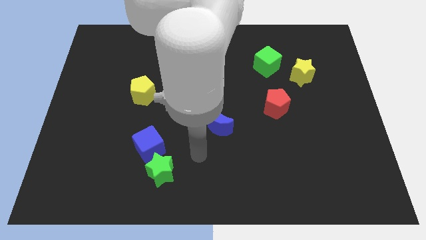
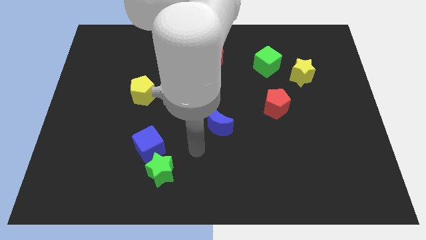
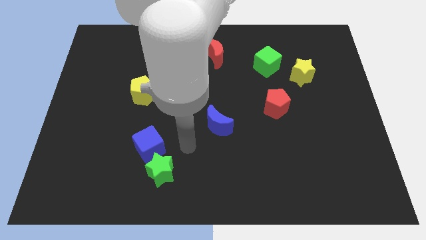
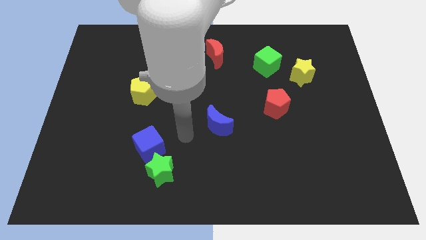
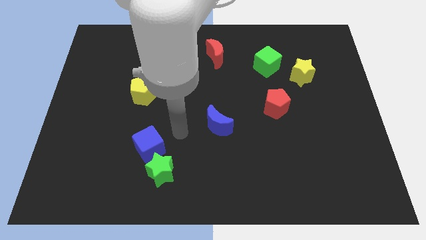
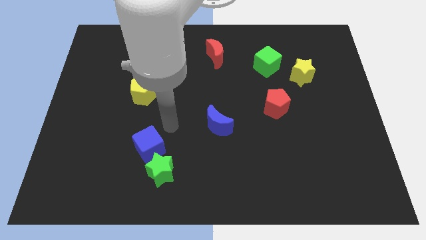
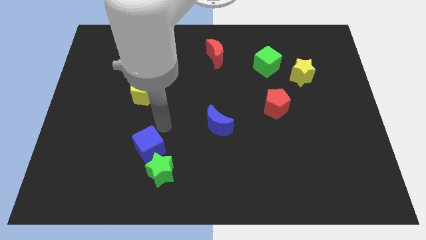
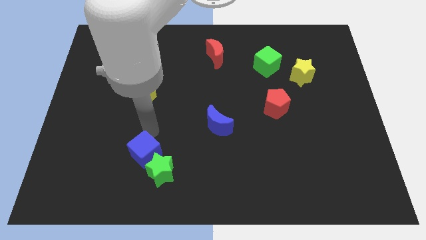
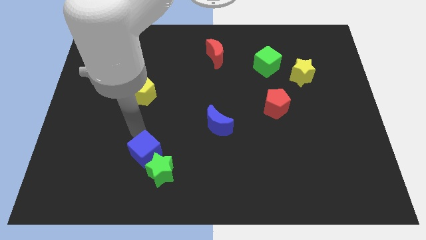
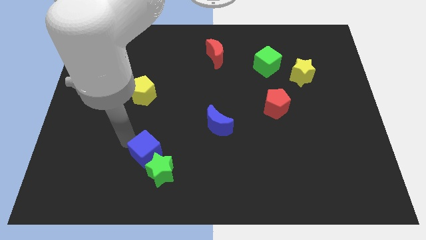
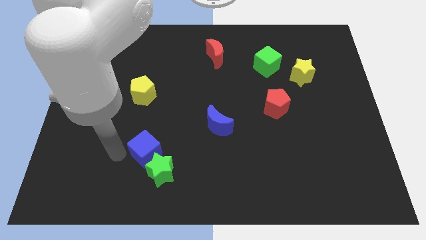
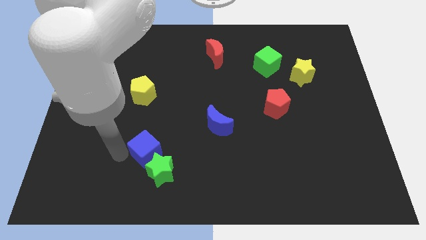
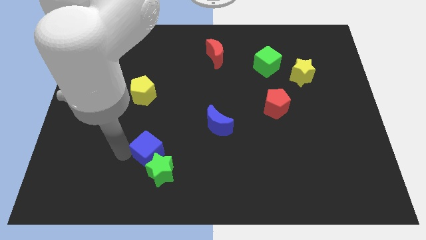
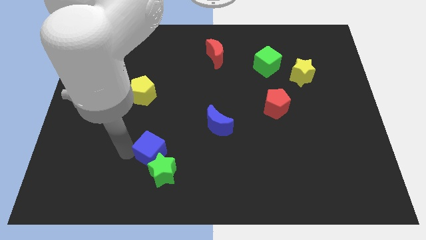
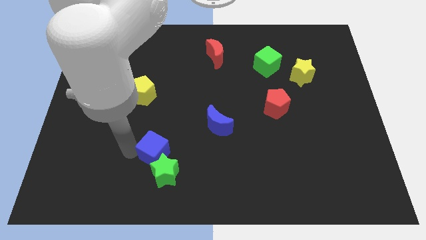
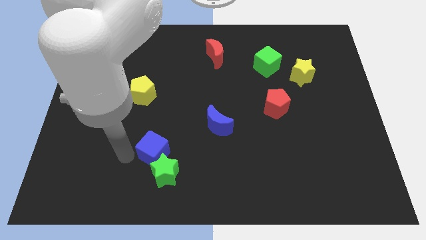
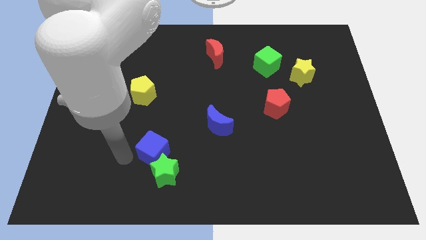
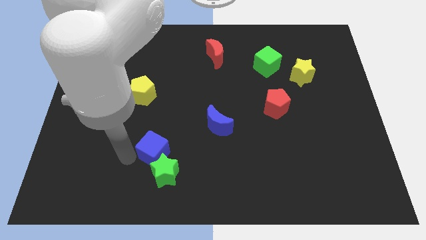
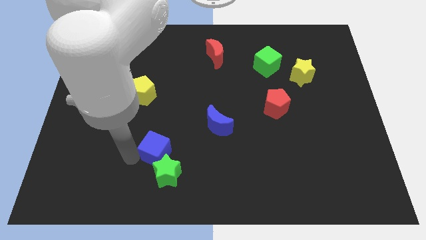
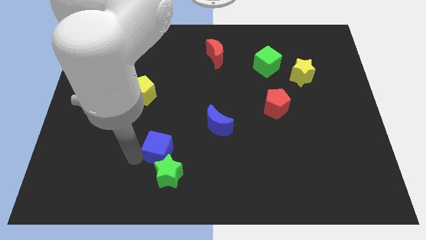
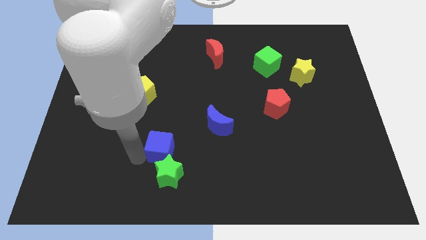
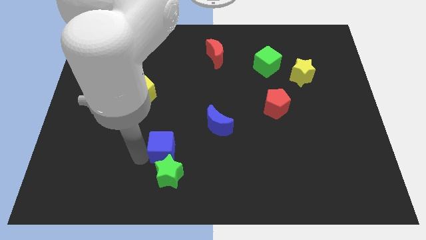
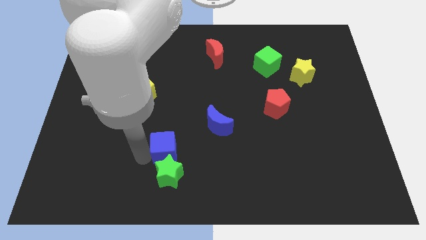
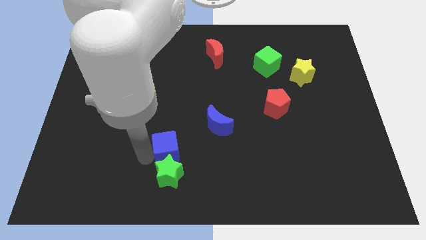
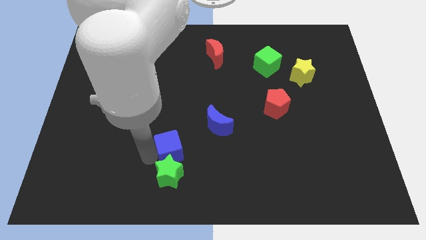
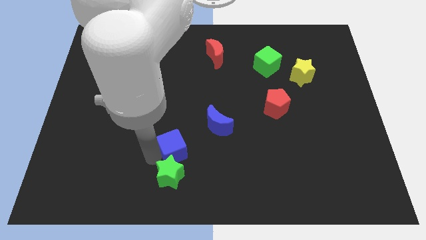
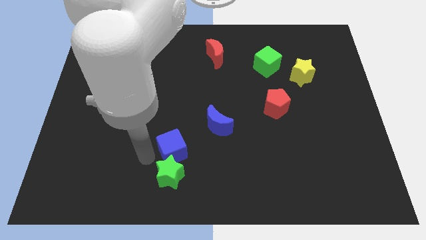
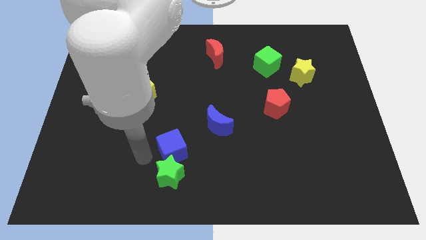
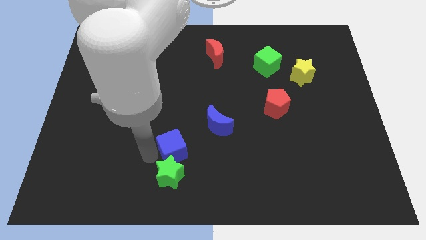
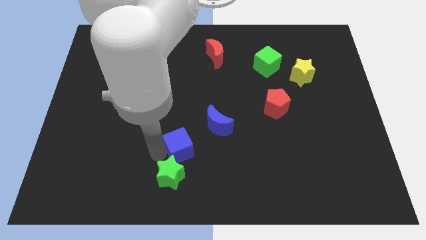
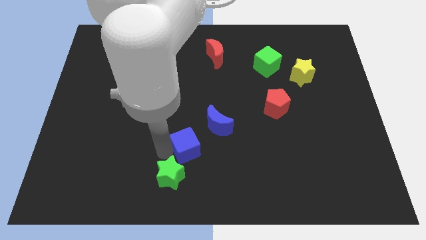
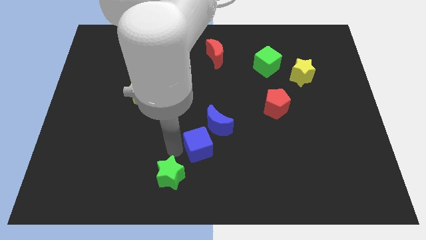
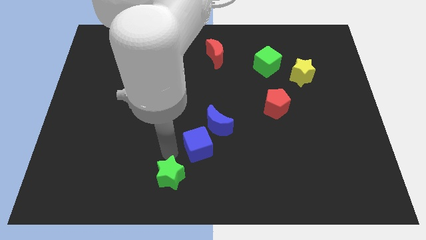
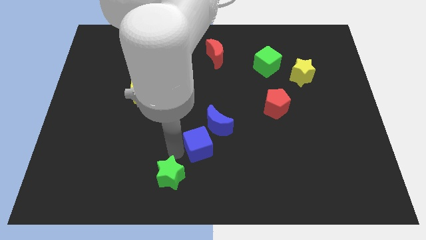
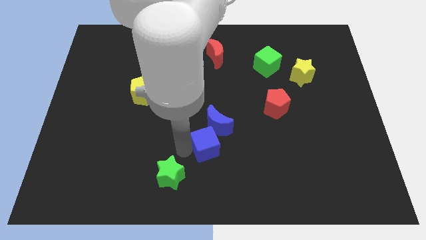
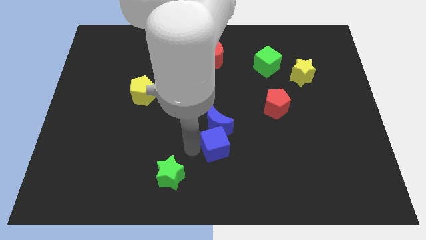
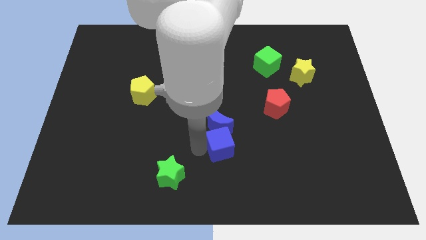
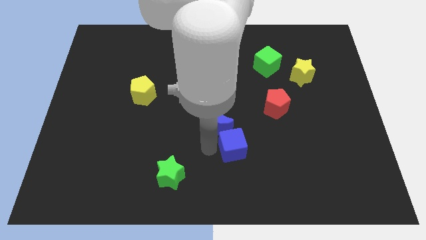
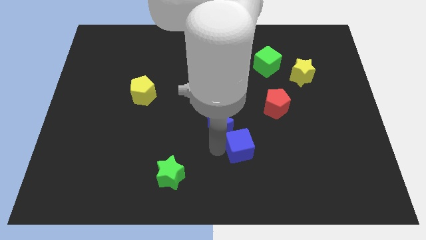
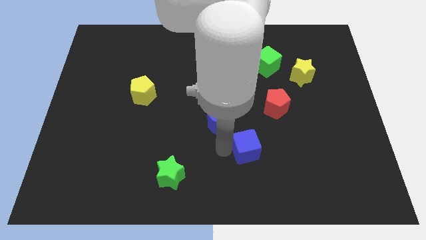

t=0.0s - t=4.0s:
push the blue cube to the right

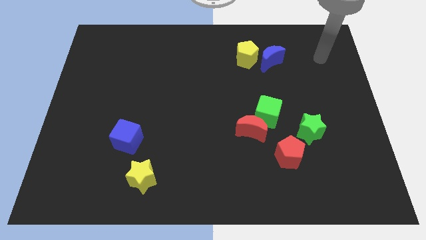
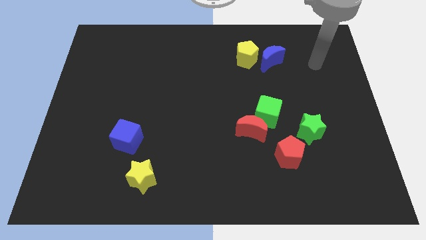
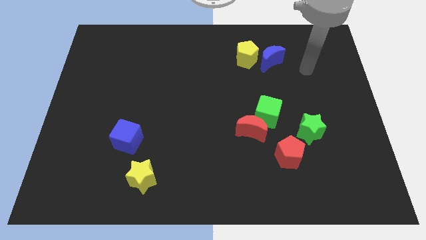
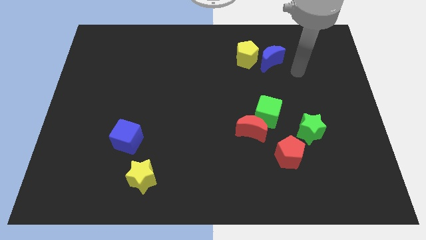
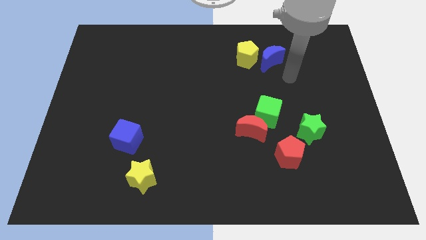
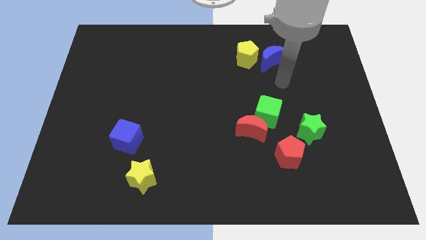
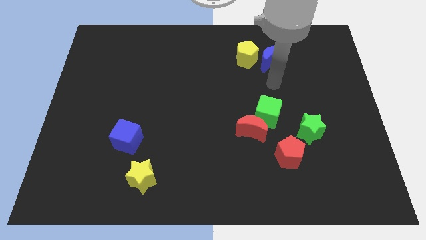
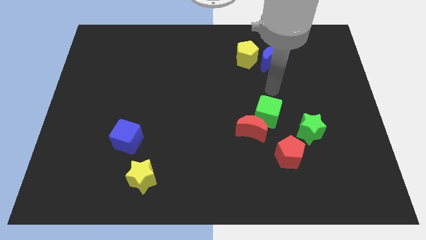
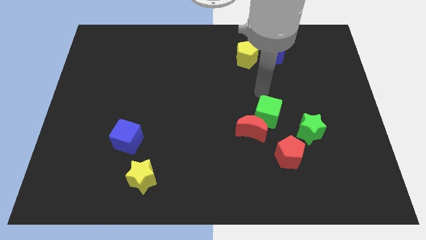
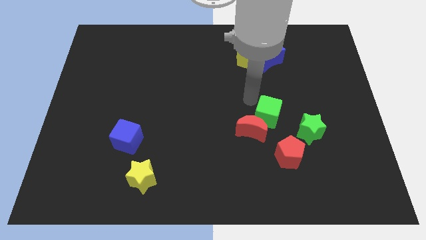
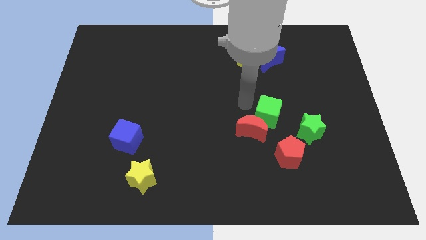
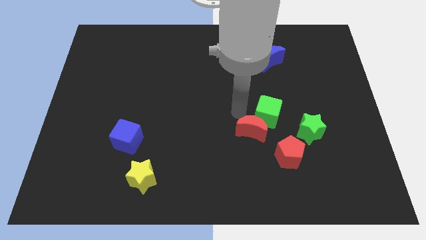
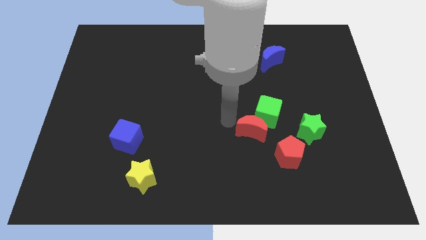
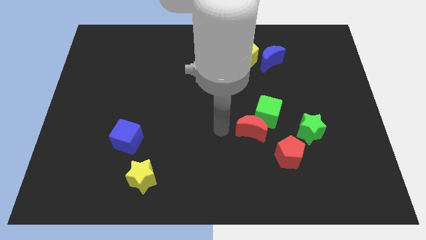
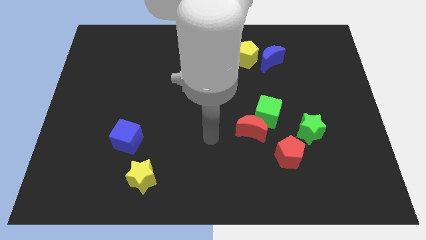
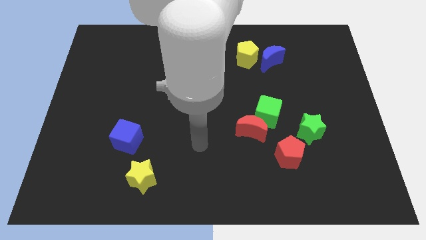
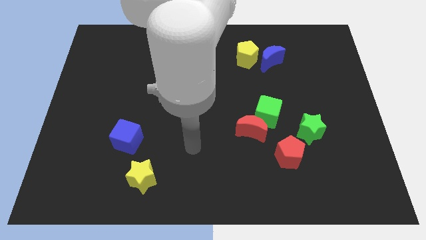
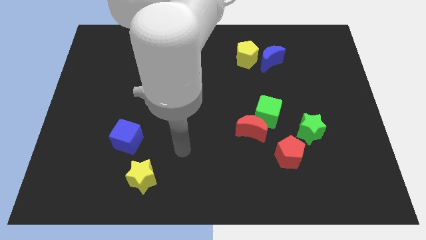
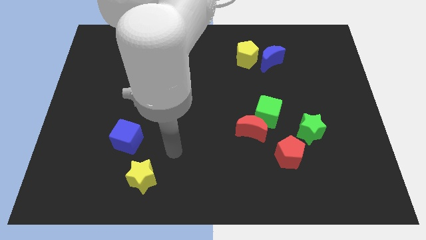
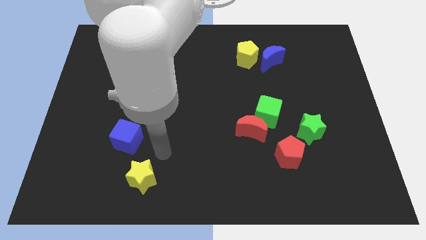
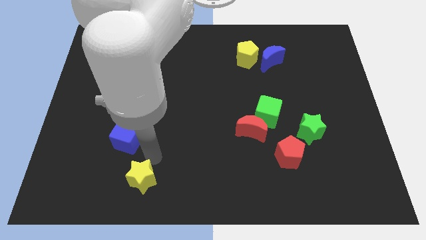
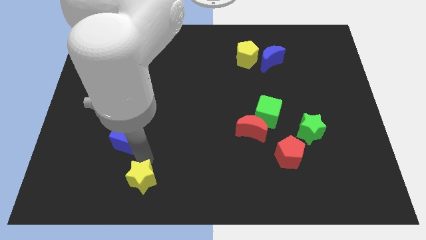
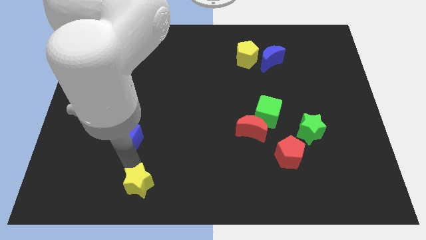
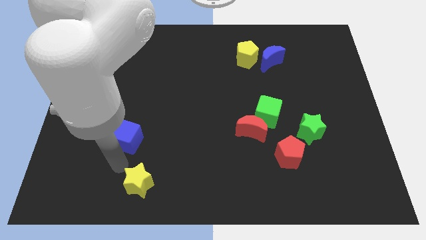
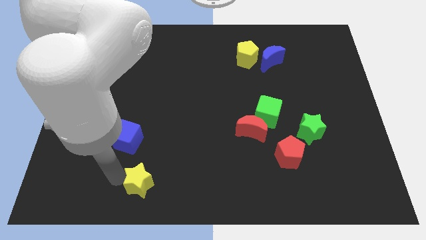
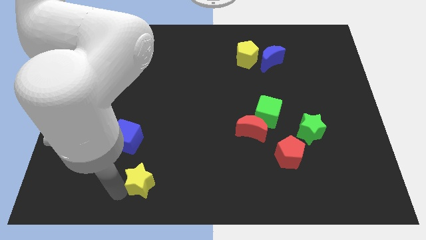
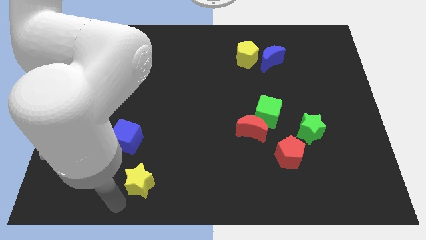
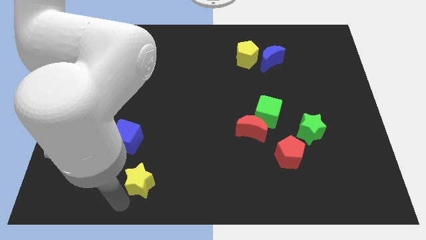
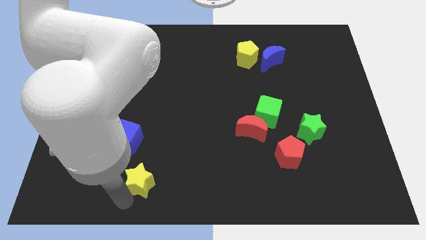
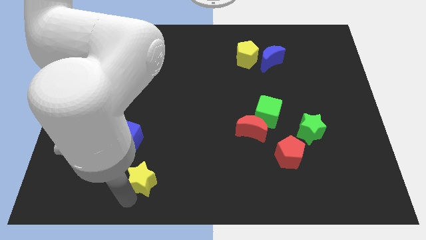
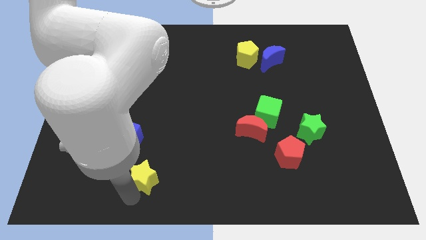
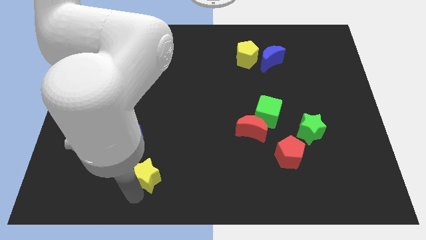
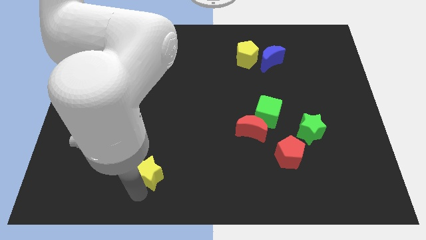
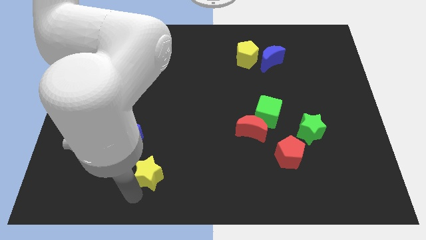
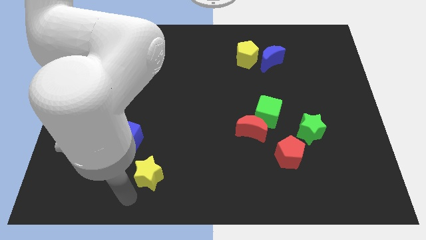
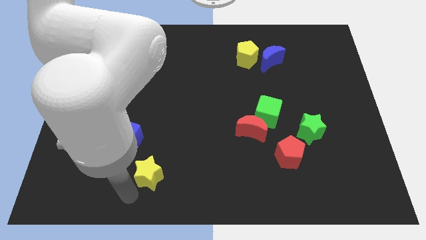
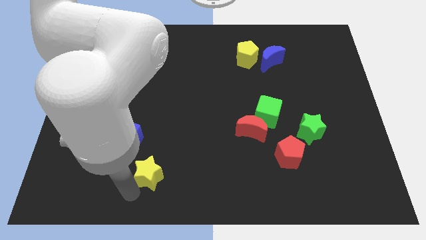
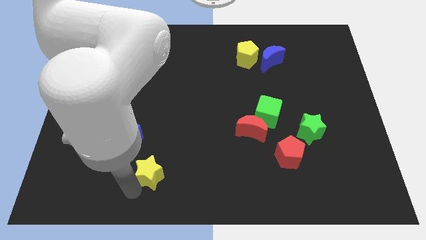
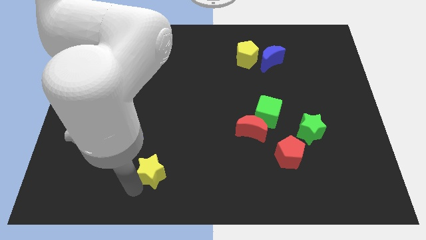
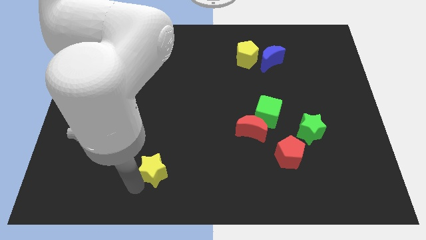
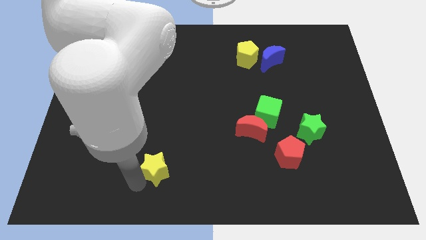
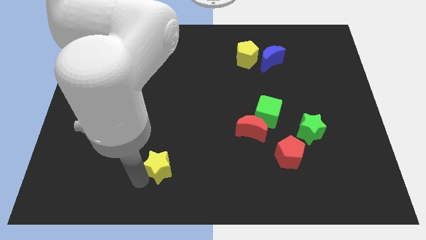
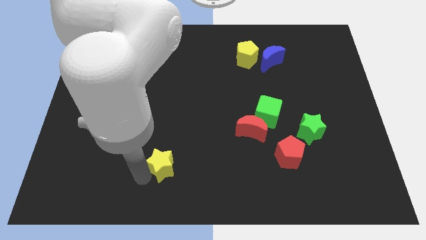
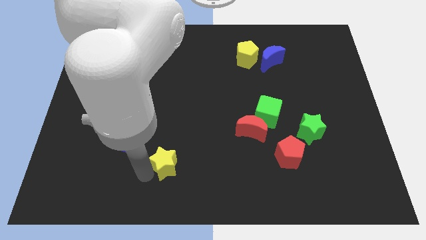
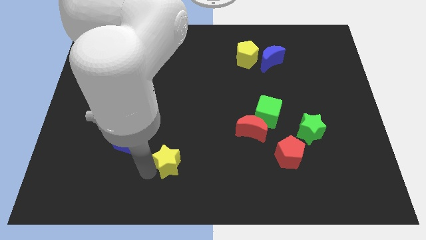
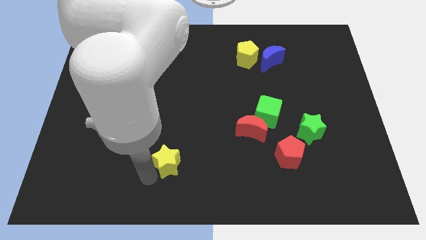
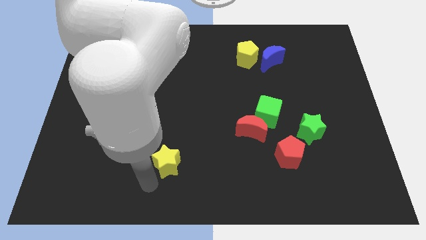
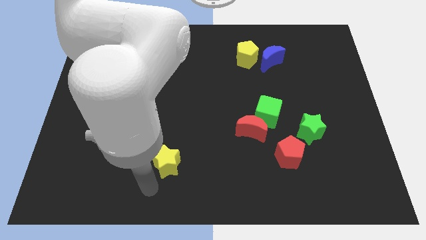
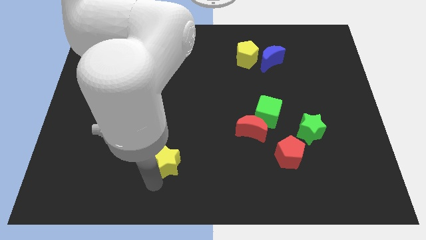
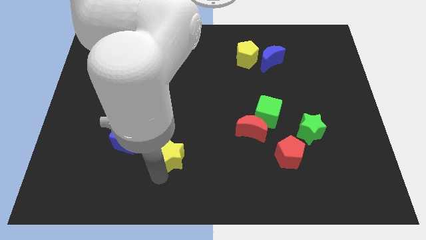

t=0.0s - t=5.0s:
slightly slide the yellow star up and right
